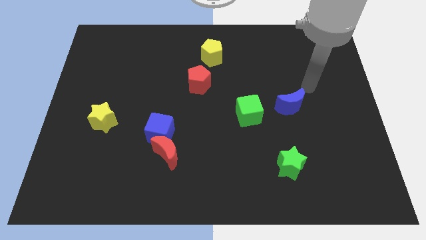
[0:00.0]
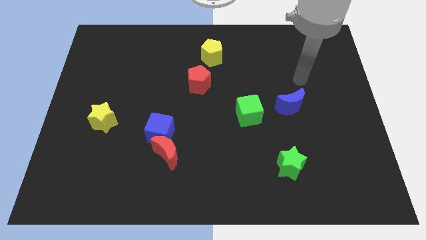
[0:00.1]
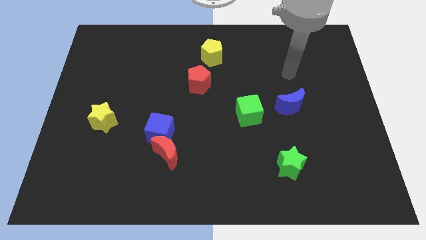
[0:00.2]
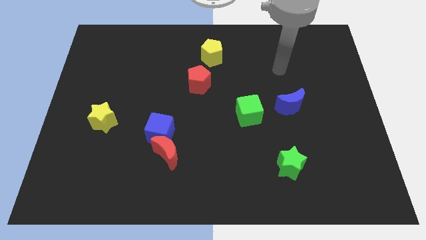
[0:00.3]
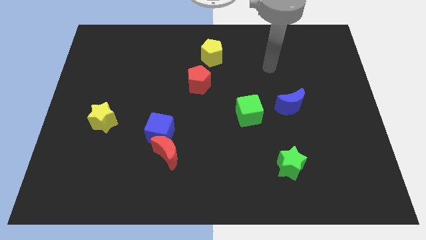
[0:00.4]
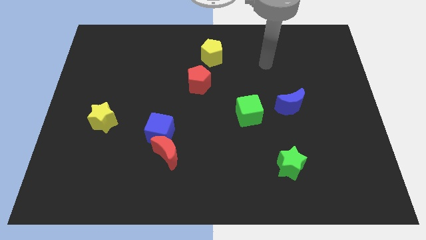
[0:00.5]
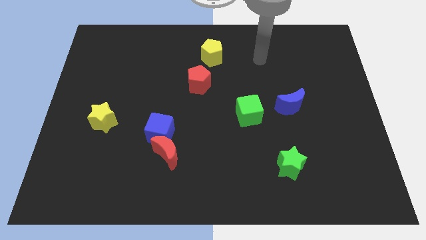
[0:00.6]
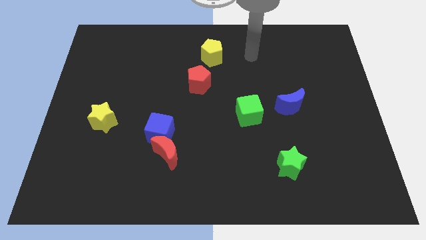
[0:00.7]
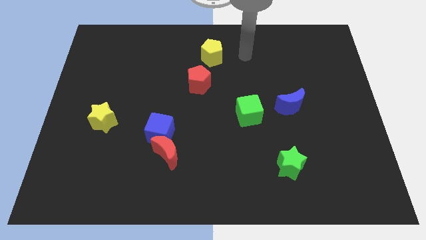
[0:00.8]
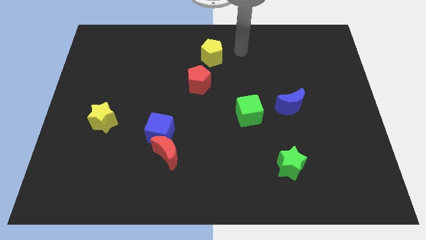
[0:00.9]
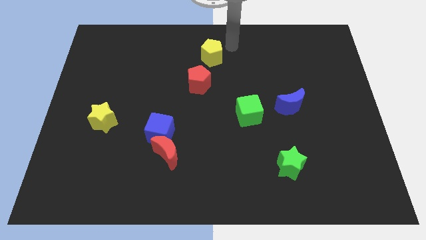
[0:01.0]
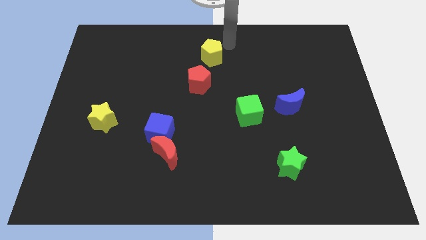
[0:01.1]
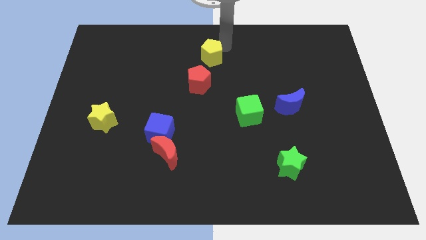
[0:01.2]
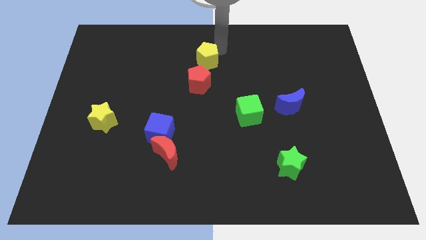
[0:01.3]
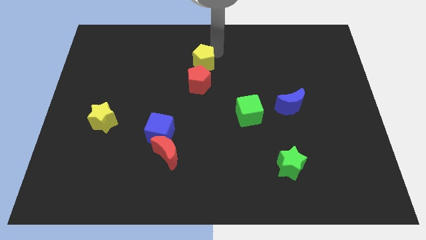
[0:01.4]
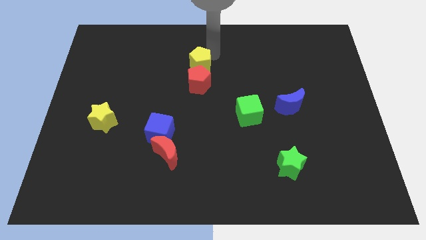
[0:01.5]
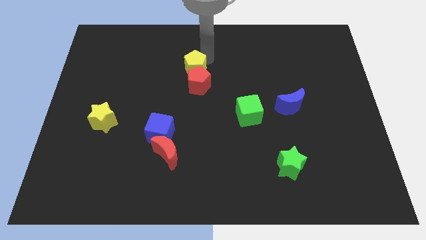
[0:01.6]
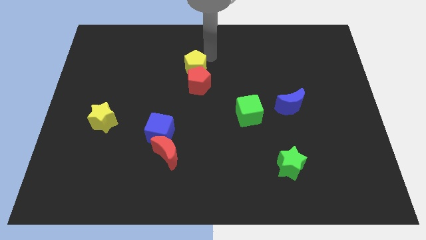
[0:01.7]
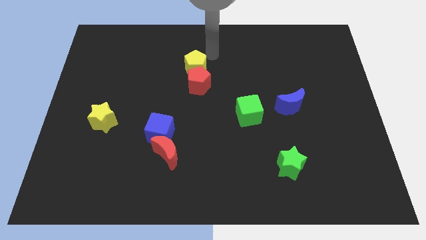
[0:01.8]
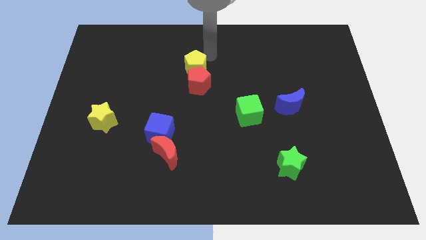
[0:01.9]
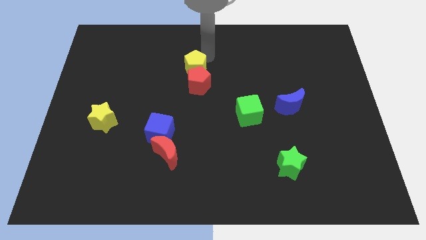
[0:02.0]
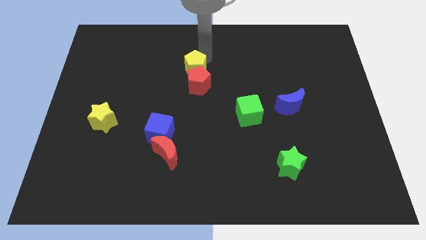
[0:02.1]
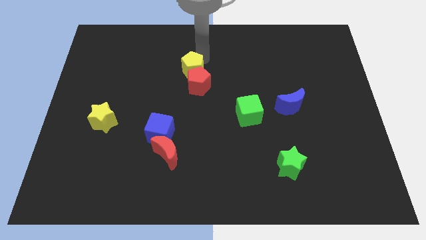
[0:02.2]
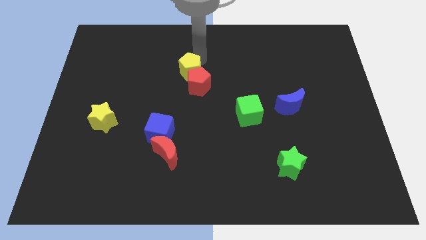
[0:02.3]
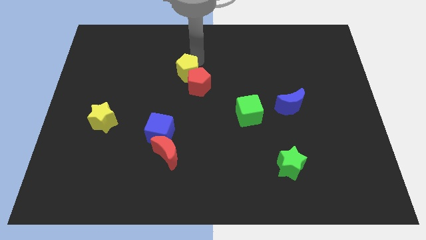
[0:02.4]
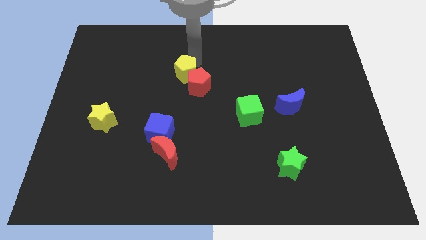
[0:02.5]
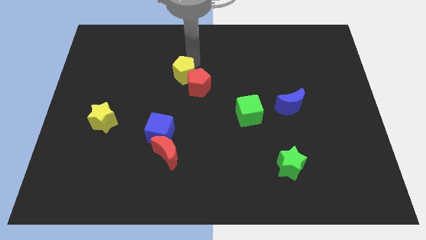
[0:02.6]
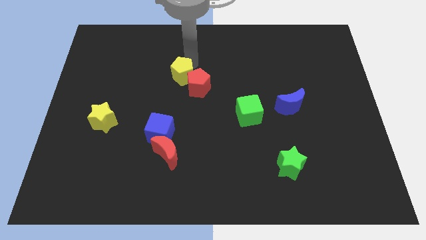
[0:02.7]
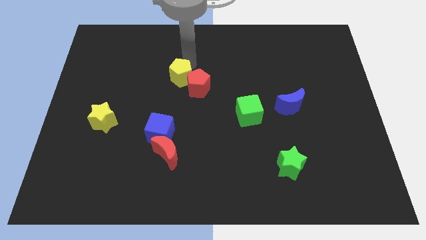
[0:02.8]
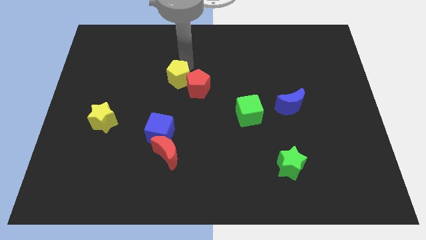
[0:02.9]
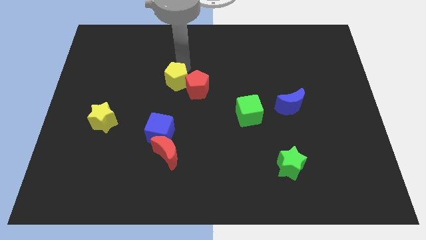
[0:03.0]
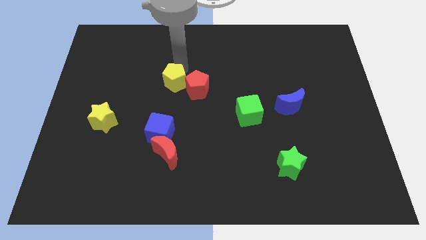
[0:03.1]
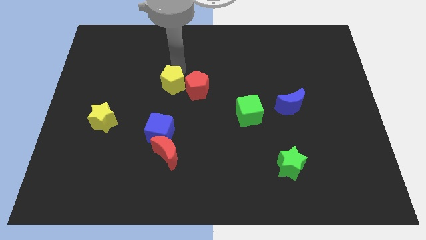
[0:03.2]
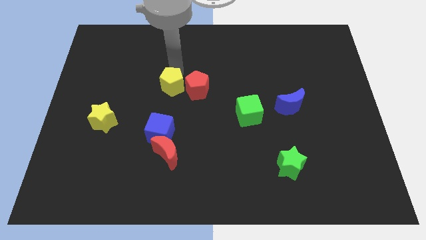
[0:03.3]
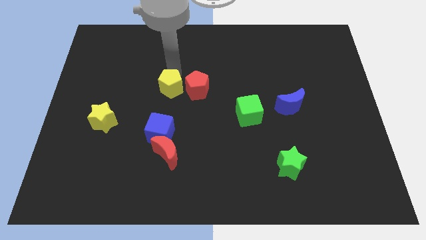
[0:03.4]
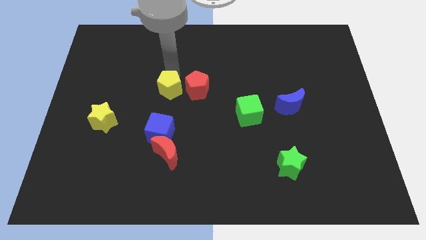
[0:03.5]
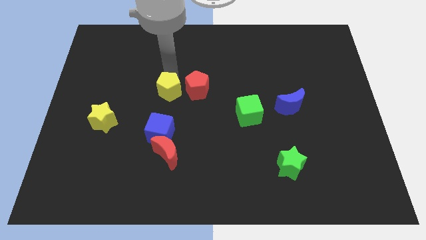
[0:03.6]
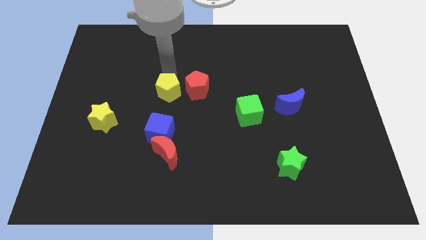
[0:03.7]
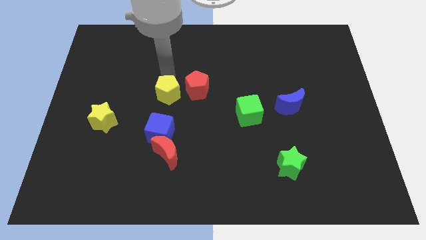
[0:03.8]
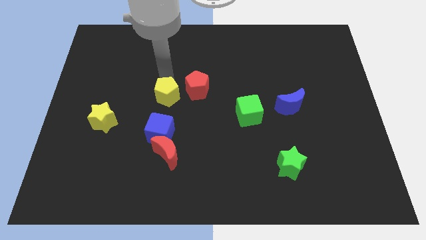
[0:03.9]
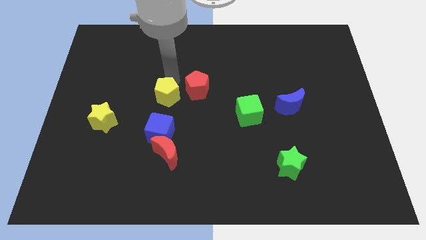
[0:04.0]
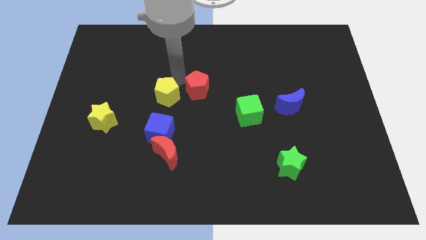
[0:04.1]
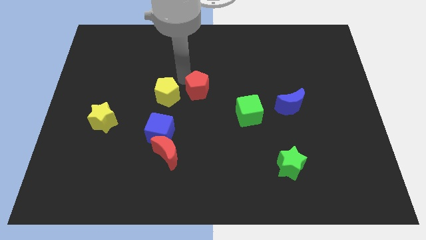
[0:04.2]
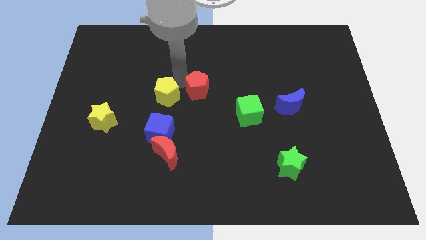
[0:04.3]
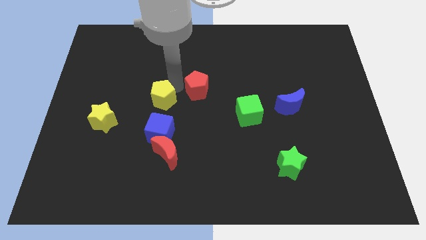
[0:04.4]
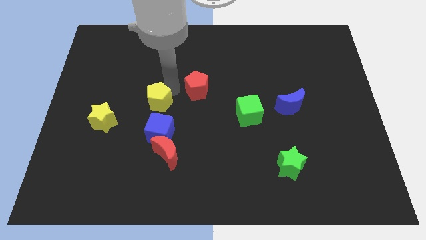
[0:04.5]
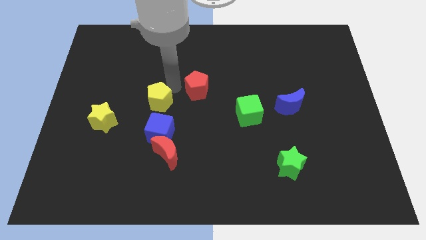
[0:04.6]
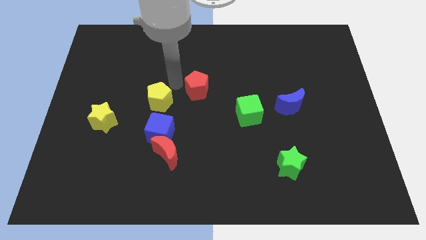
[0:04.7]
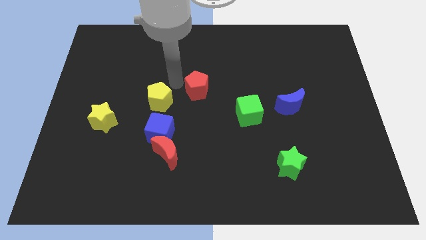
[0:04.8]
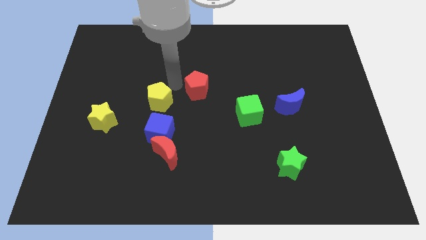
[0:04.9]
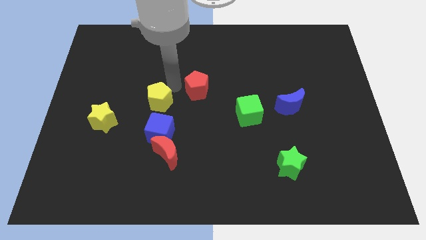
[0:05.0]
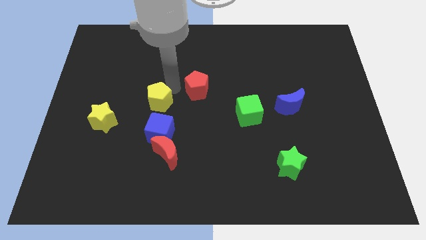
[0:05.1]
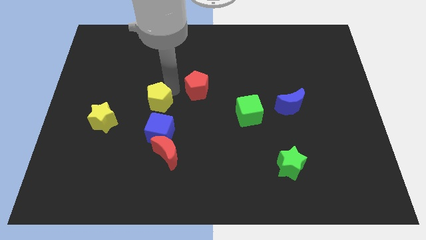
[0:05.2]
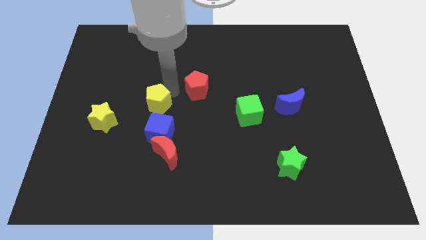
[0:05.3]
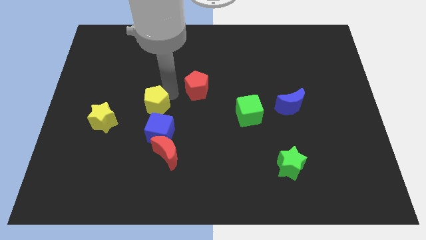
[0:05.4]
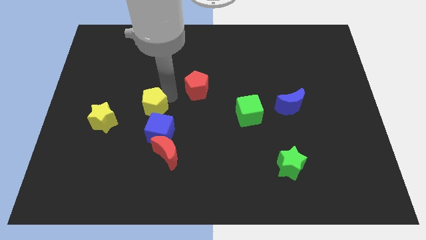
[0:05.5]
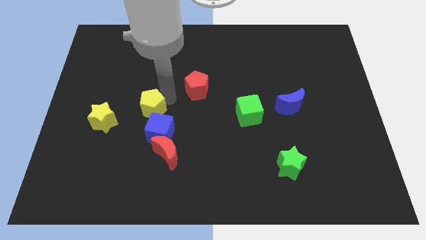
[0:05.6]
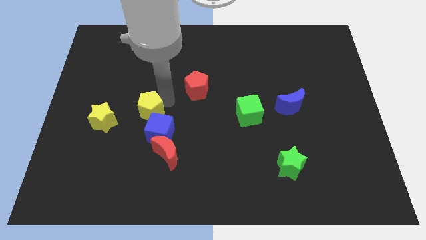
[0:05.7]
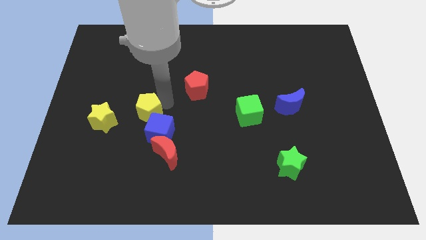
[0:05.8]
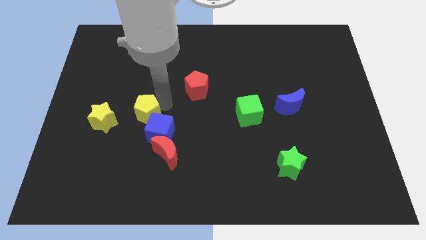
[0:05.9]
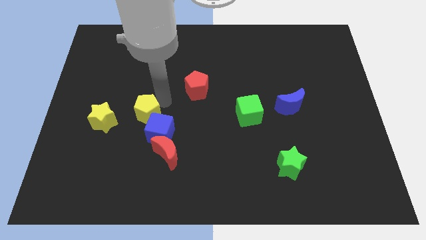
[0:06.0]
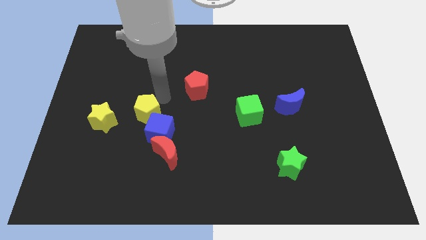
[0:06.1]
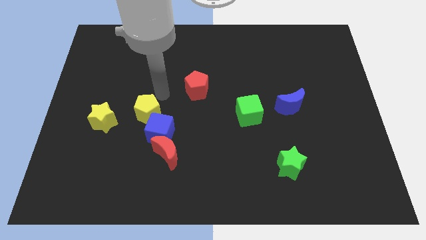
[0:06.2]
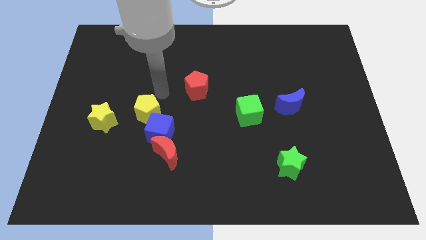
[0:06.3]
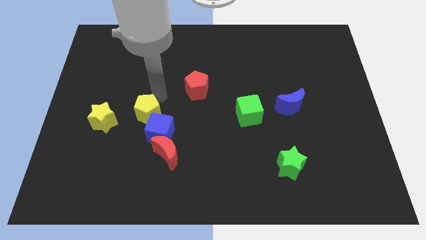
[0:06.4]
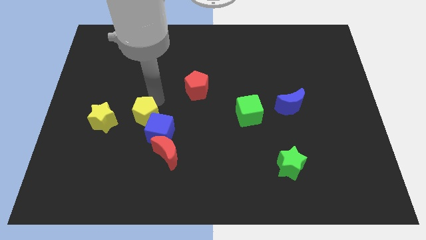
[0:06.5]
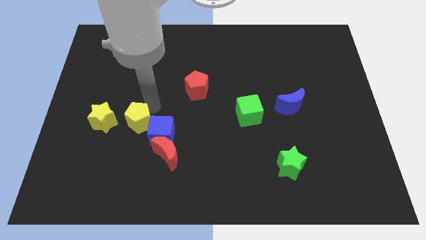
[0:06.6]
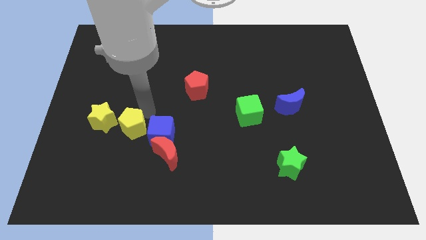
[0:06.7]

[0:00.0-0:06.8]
move the yellow pentagon to the bottom right of the yellow star

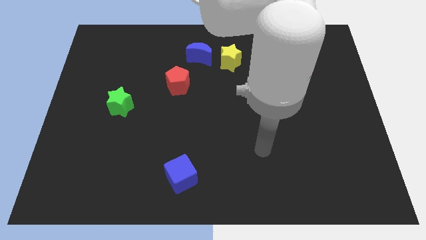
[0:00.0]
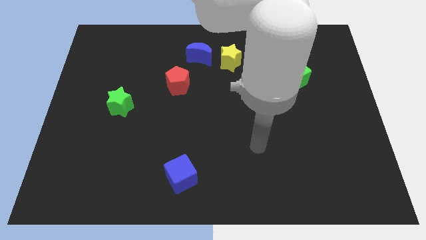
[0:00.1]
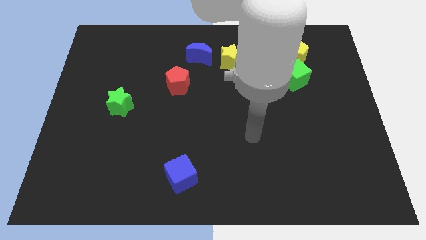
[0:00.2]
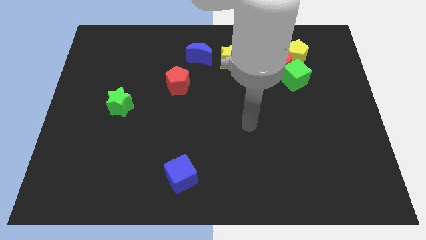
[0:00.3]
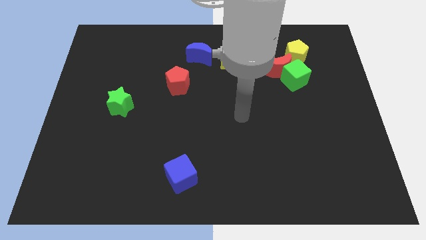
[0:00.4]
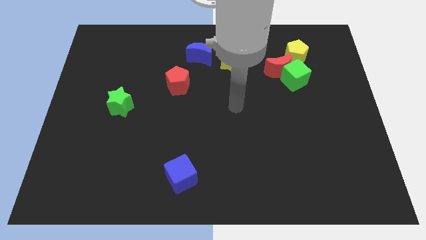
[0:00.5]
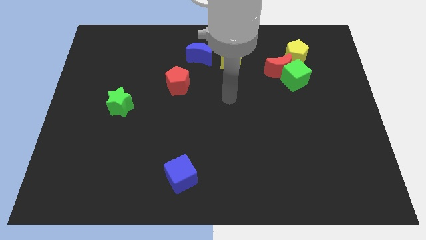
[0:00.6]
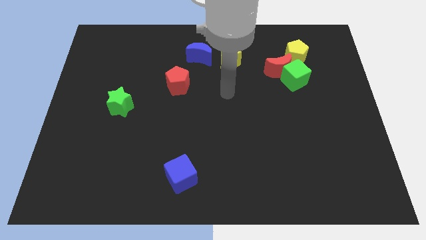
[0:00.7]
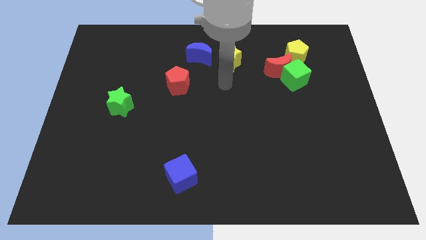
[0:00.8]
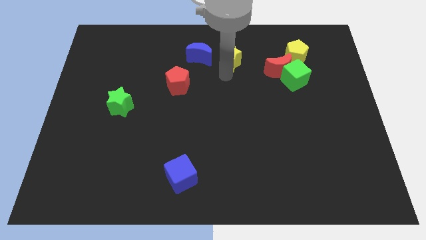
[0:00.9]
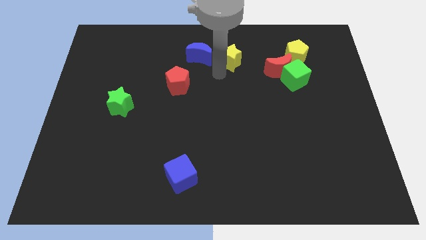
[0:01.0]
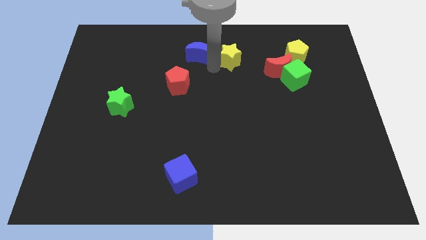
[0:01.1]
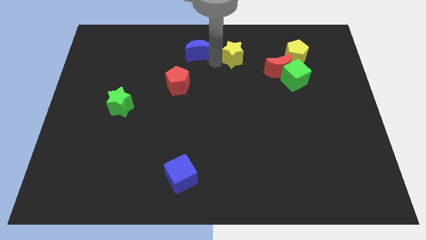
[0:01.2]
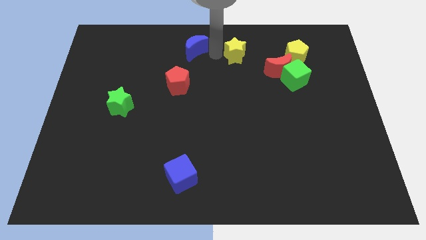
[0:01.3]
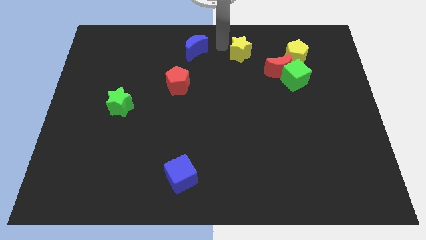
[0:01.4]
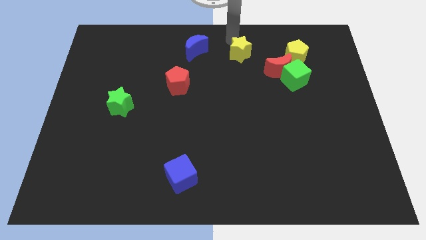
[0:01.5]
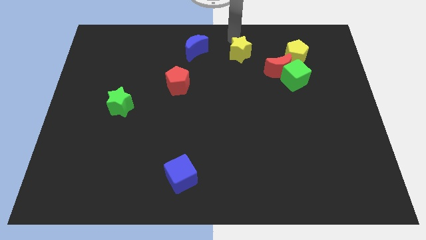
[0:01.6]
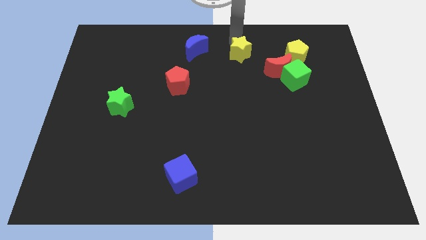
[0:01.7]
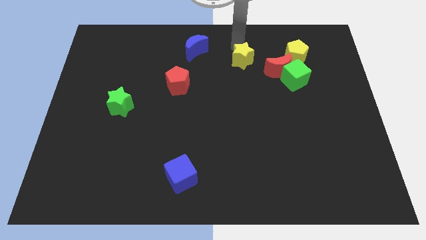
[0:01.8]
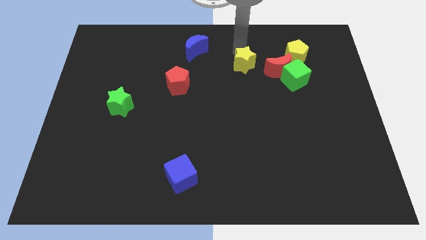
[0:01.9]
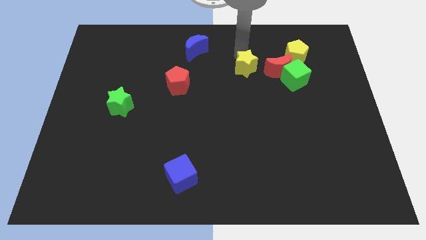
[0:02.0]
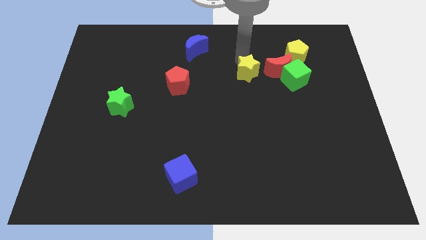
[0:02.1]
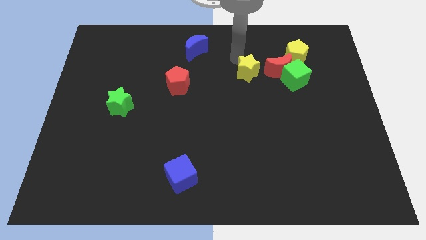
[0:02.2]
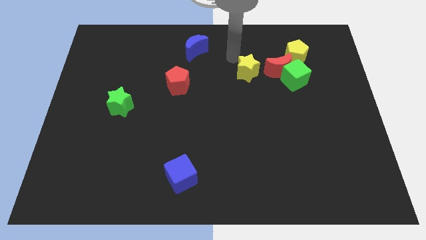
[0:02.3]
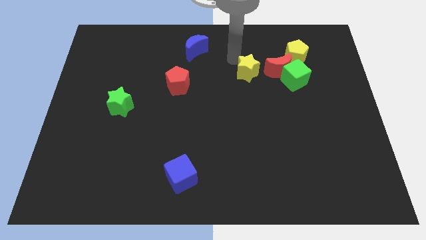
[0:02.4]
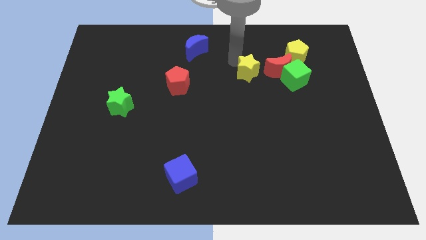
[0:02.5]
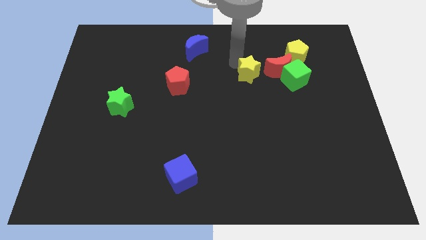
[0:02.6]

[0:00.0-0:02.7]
slide the yellow star diagonally down and to the left of the red moon
